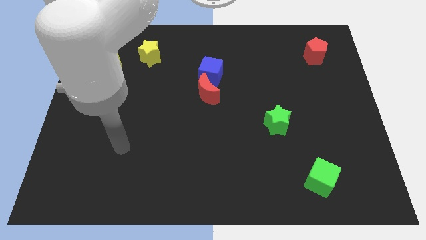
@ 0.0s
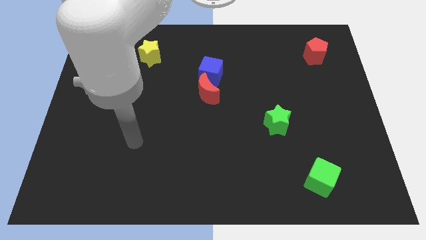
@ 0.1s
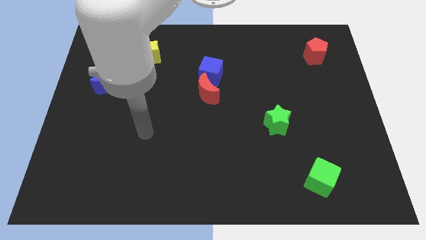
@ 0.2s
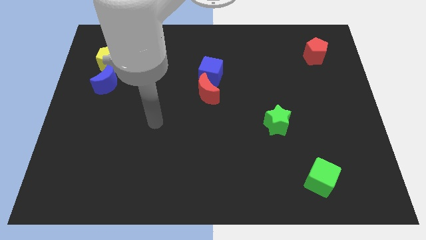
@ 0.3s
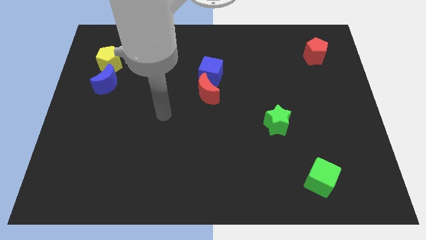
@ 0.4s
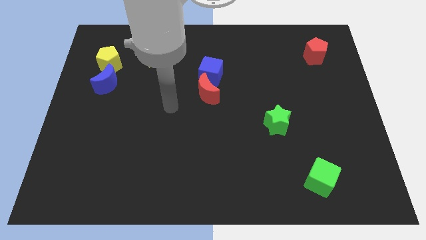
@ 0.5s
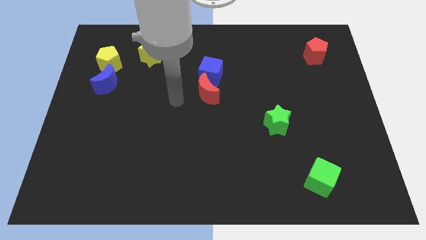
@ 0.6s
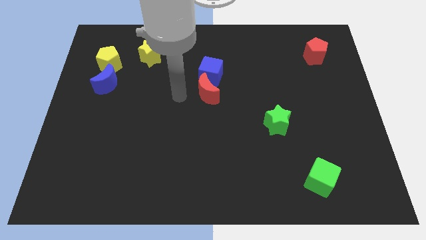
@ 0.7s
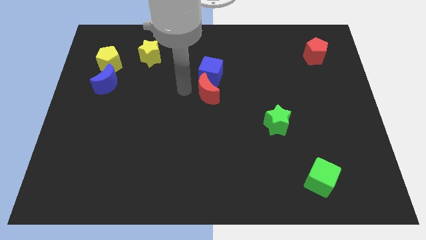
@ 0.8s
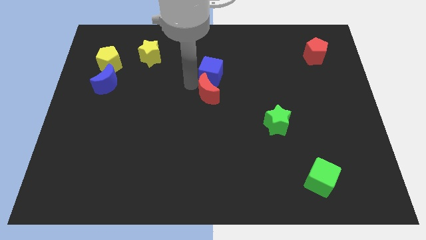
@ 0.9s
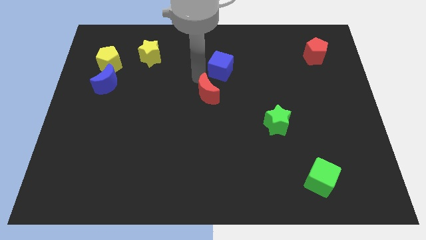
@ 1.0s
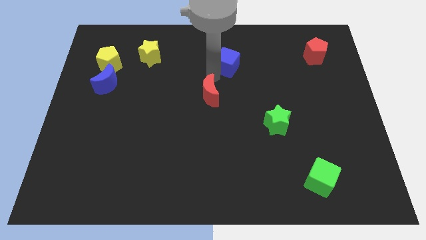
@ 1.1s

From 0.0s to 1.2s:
separate the red moon from the blue cube

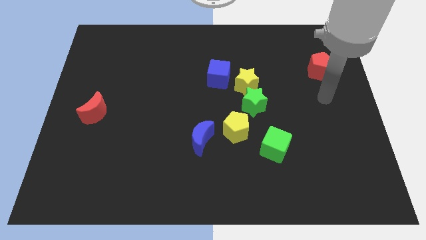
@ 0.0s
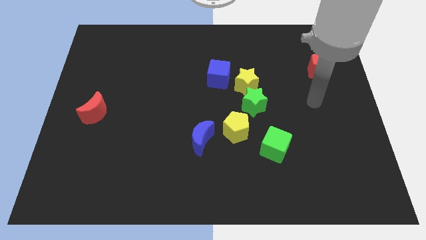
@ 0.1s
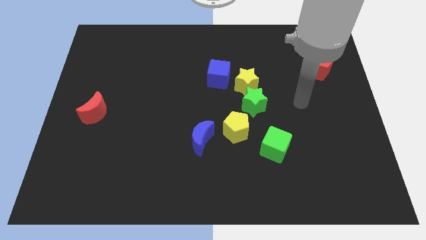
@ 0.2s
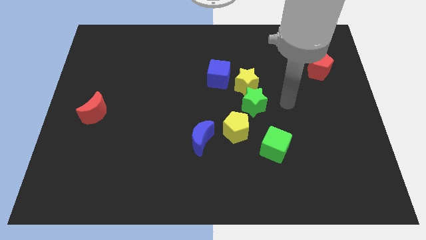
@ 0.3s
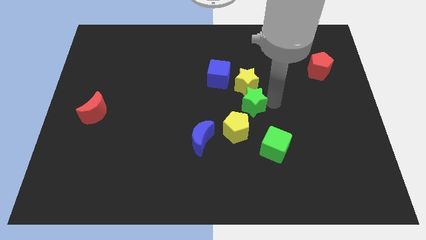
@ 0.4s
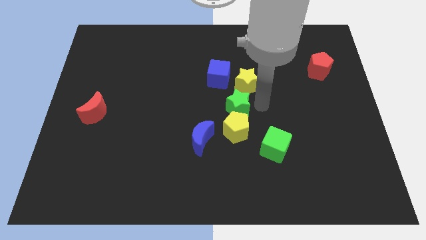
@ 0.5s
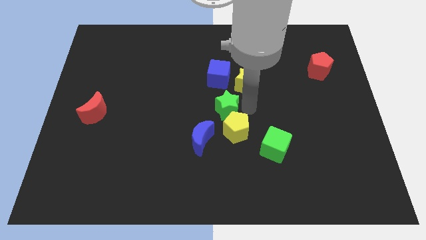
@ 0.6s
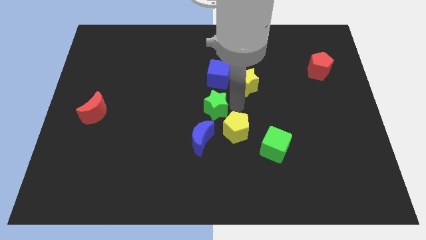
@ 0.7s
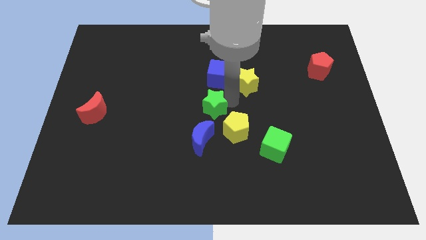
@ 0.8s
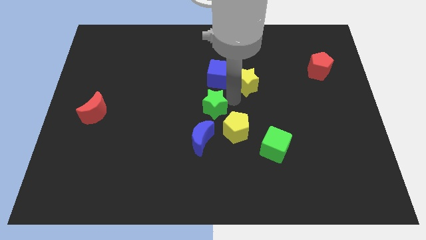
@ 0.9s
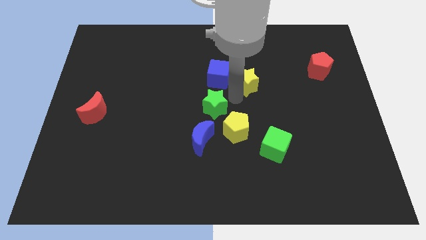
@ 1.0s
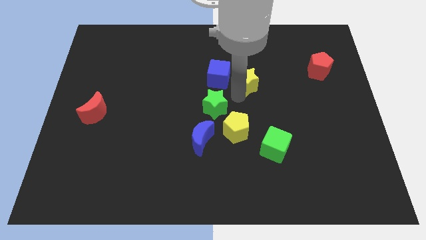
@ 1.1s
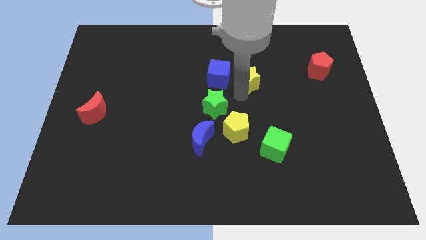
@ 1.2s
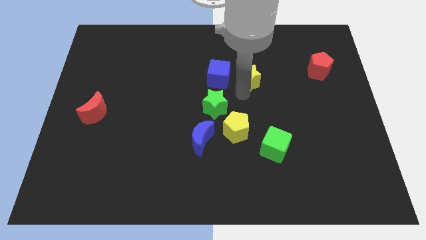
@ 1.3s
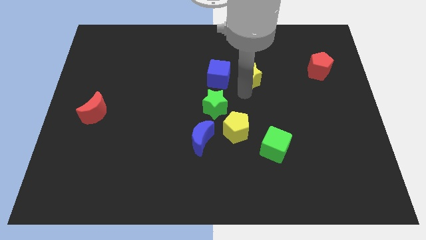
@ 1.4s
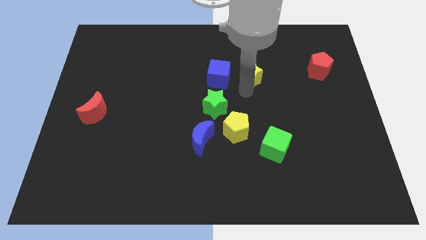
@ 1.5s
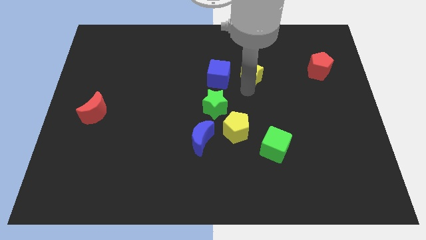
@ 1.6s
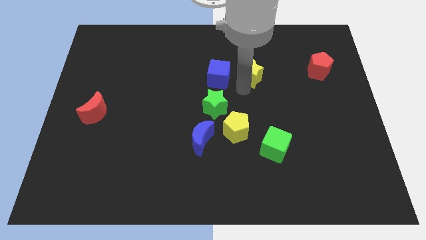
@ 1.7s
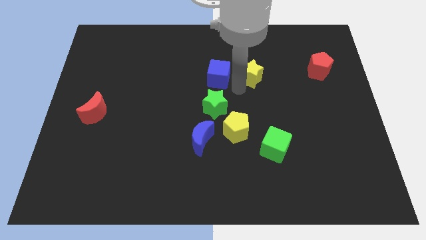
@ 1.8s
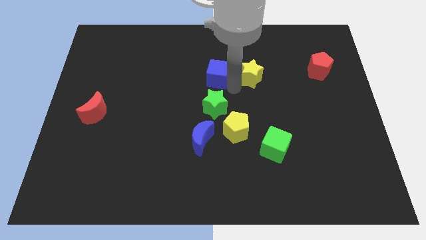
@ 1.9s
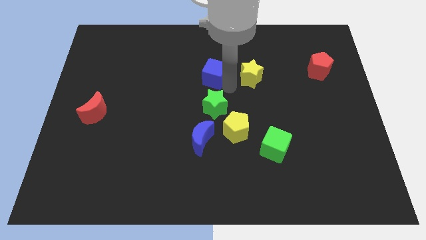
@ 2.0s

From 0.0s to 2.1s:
move the yellow star away from the green star and blue cube

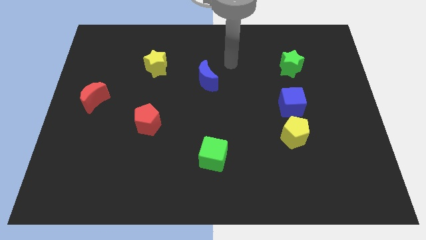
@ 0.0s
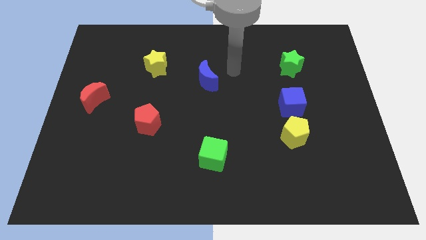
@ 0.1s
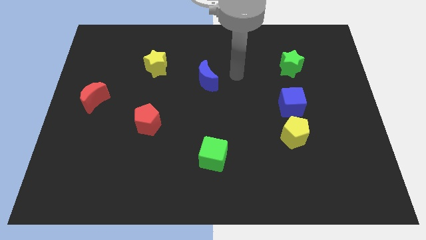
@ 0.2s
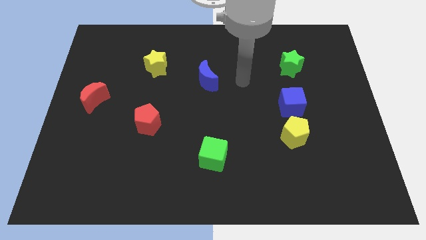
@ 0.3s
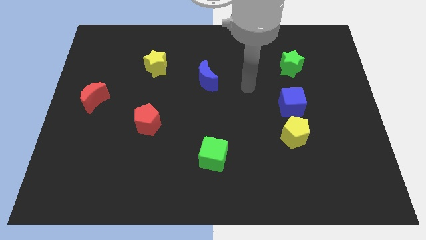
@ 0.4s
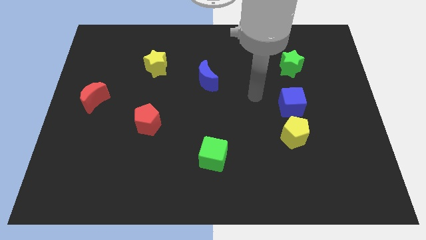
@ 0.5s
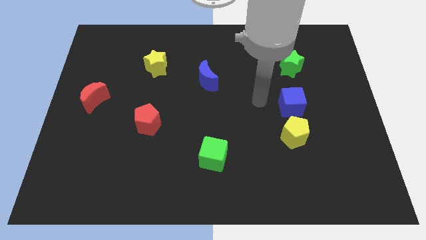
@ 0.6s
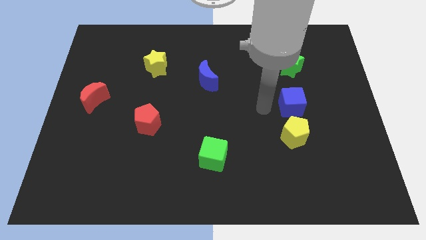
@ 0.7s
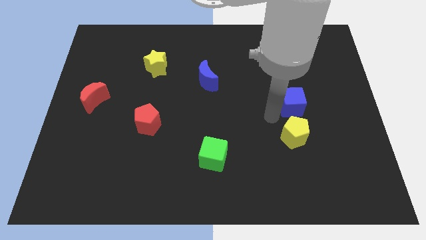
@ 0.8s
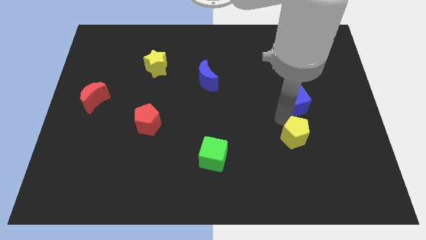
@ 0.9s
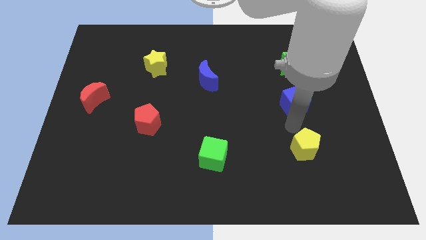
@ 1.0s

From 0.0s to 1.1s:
separate the blue cube from the yellow pentagon

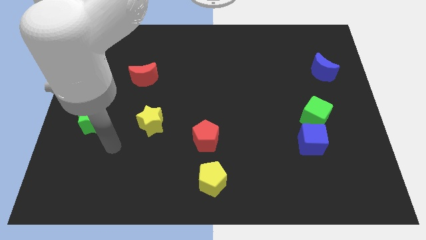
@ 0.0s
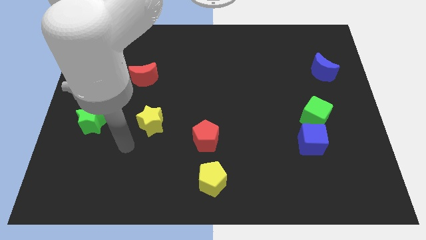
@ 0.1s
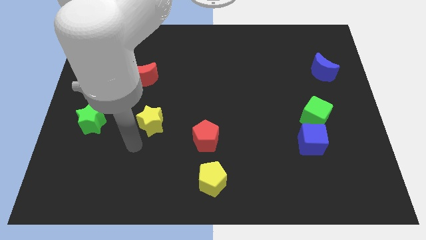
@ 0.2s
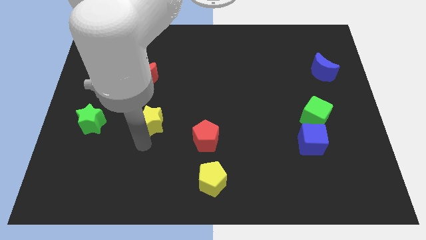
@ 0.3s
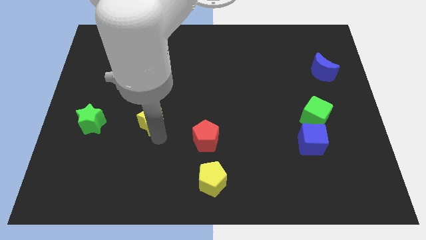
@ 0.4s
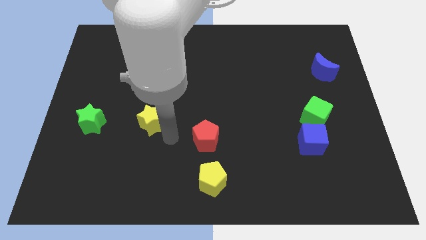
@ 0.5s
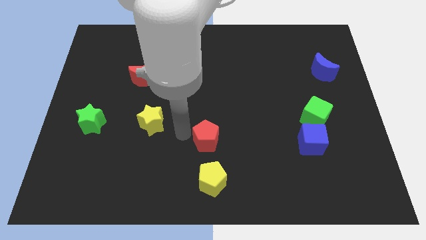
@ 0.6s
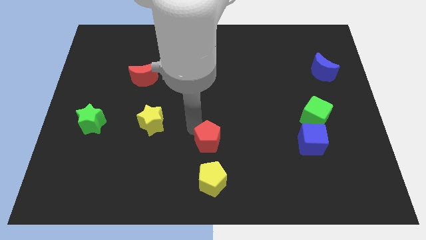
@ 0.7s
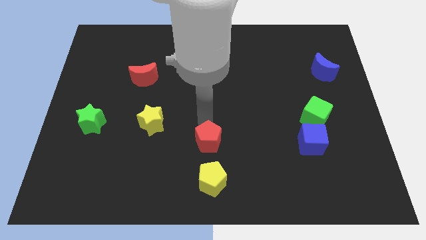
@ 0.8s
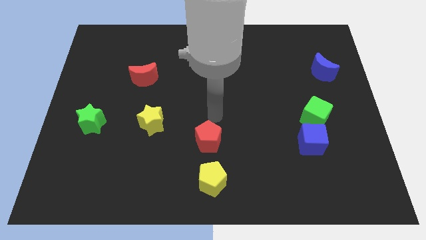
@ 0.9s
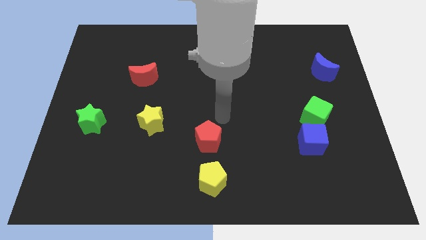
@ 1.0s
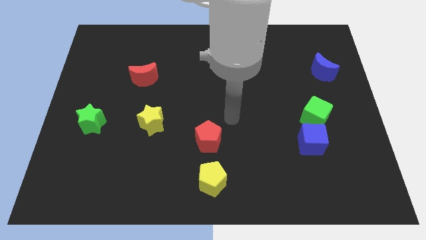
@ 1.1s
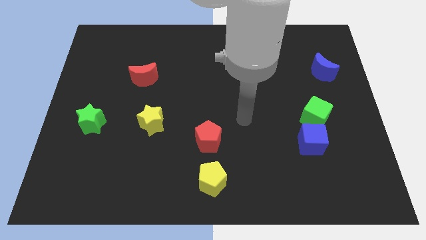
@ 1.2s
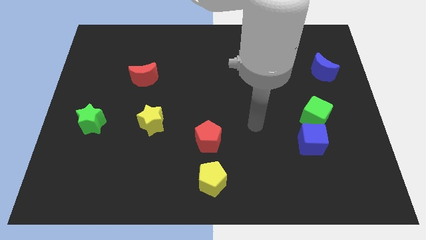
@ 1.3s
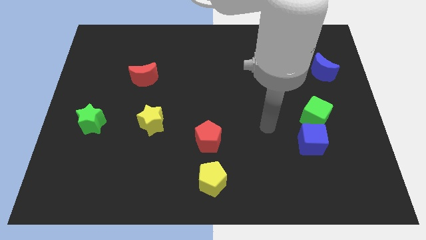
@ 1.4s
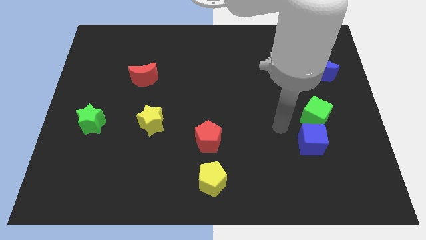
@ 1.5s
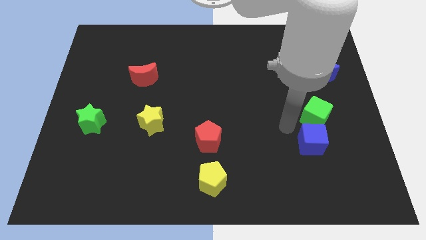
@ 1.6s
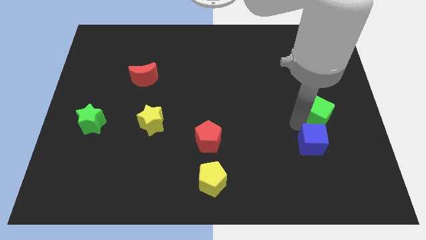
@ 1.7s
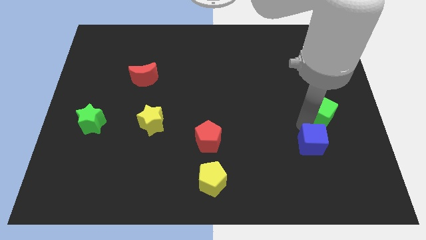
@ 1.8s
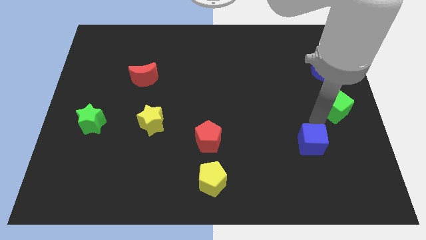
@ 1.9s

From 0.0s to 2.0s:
pull the blue cube apart from the green cube

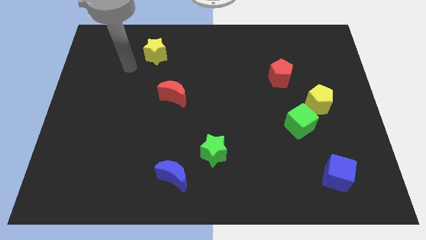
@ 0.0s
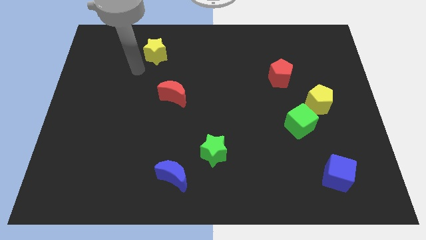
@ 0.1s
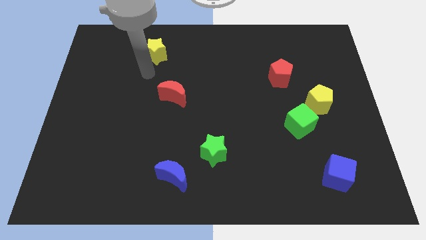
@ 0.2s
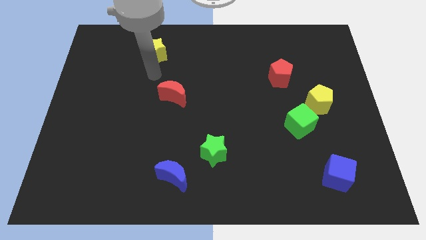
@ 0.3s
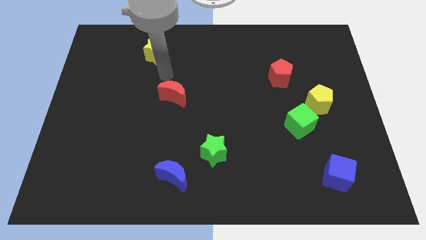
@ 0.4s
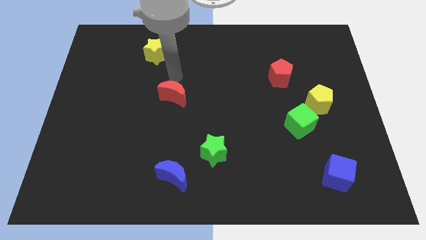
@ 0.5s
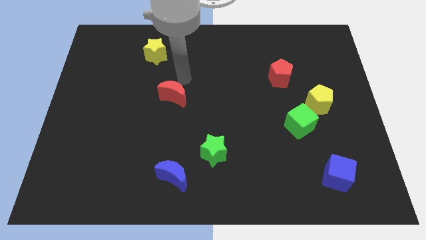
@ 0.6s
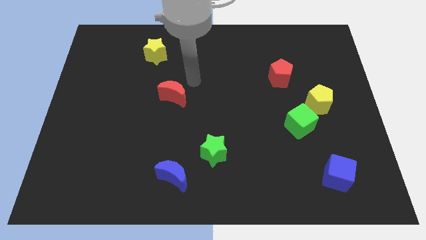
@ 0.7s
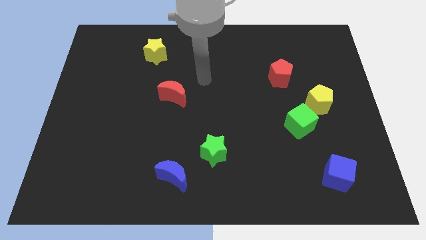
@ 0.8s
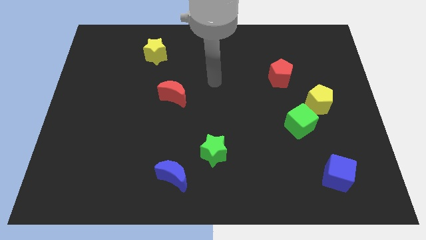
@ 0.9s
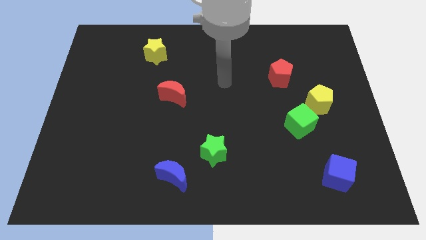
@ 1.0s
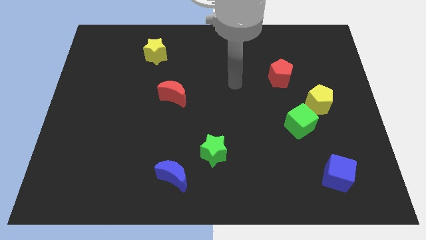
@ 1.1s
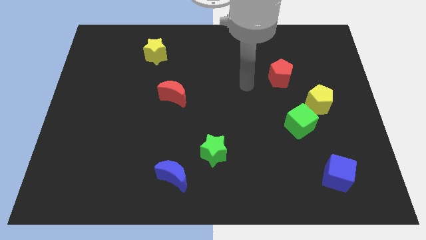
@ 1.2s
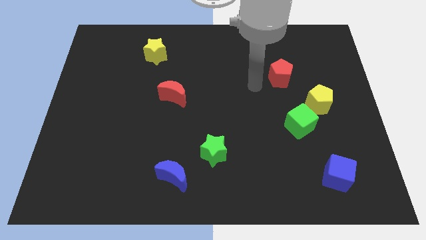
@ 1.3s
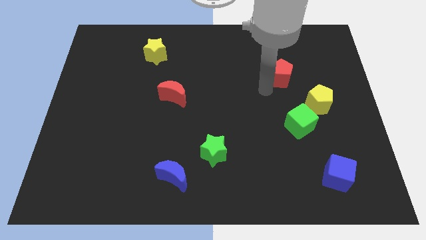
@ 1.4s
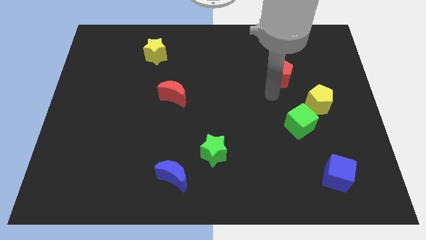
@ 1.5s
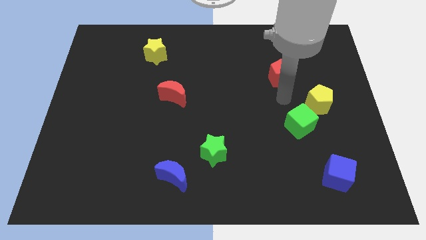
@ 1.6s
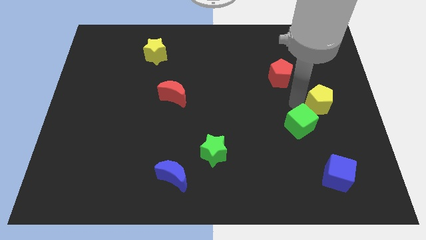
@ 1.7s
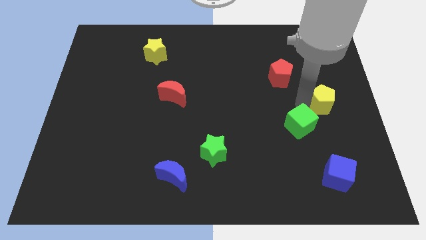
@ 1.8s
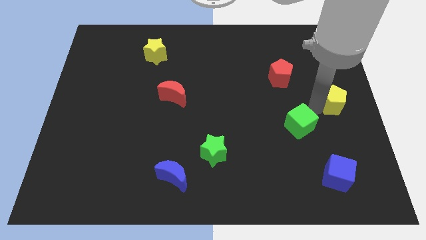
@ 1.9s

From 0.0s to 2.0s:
separate the green cube from the yellow pentagon

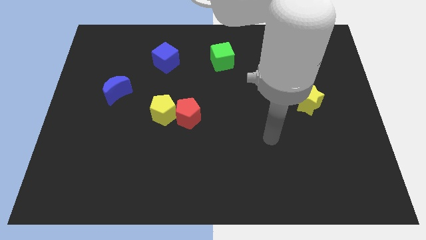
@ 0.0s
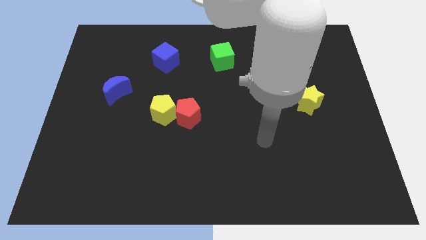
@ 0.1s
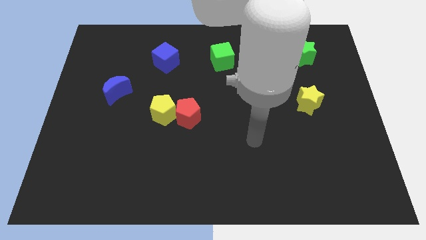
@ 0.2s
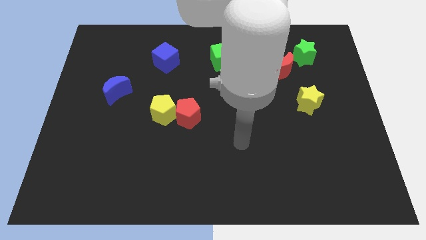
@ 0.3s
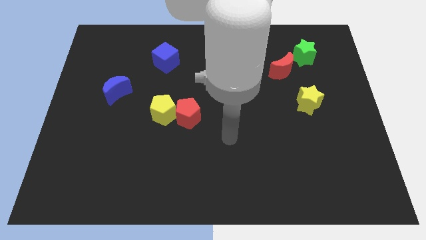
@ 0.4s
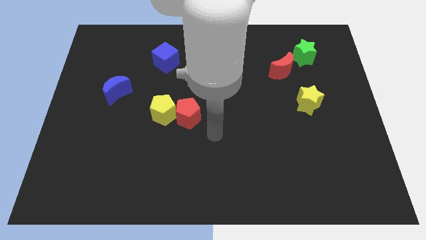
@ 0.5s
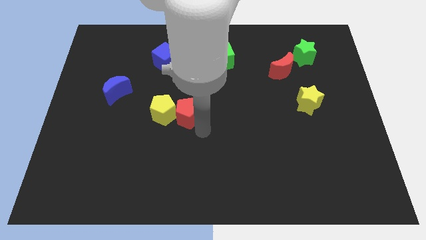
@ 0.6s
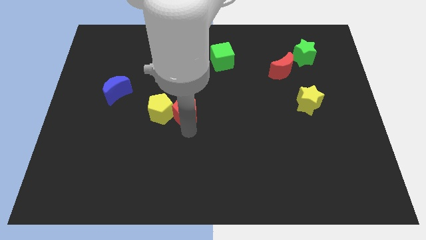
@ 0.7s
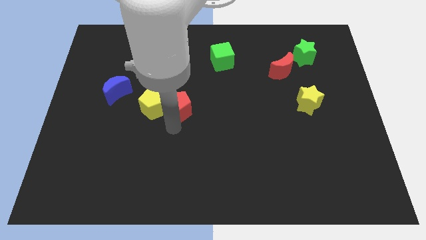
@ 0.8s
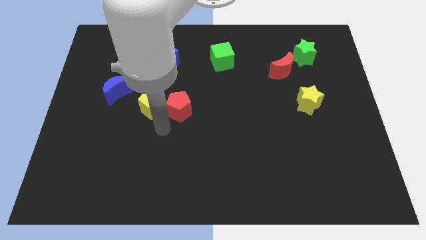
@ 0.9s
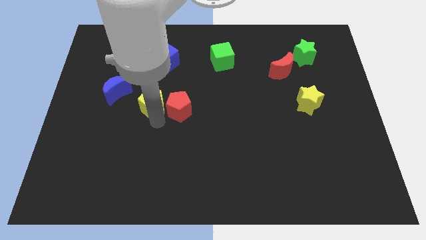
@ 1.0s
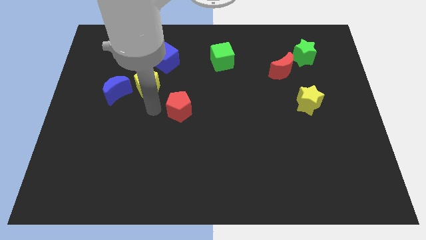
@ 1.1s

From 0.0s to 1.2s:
pull the red pentagon apart from the yellow pentagon
